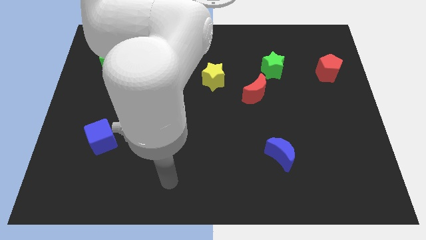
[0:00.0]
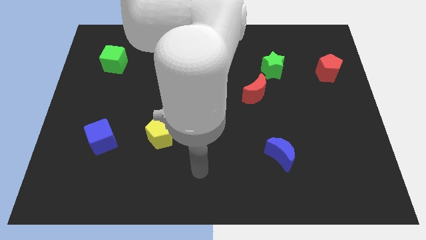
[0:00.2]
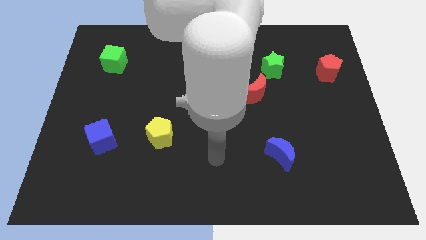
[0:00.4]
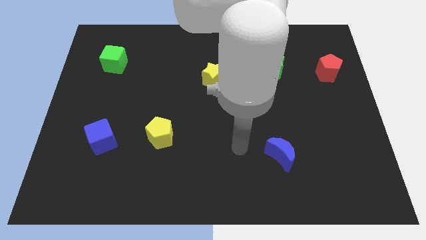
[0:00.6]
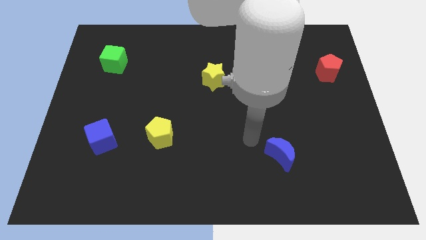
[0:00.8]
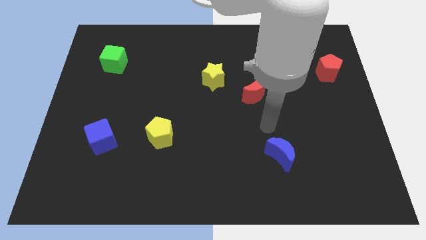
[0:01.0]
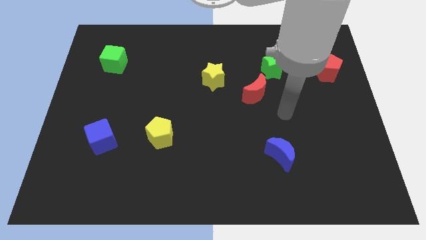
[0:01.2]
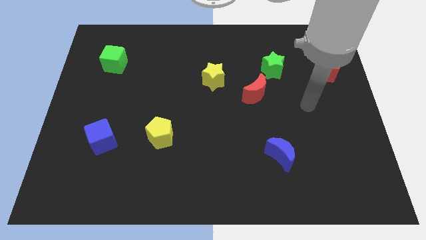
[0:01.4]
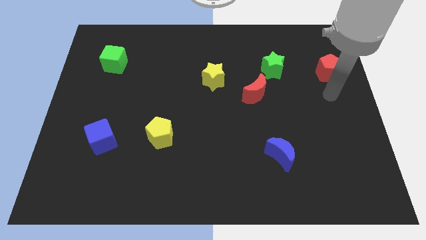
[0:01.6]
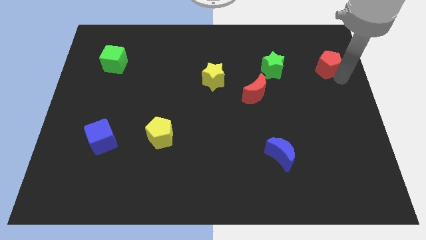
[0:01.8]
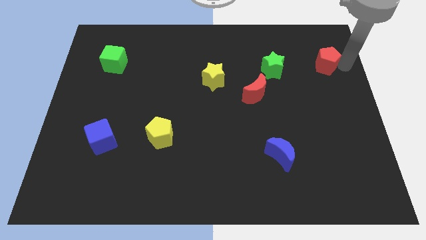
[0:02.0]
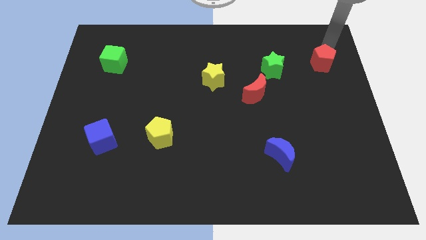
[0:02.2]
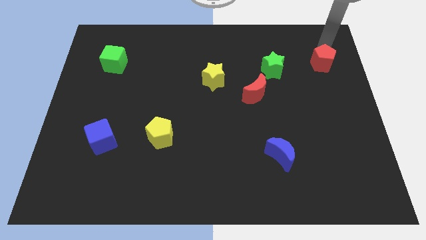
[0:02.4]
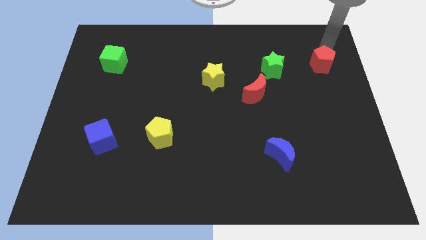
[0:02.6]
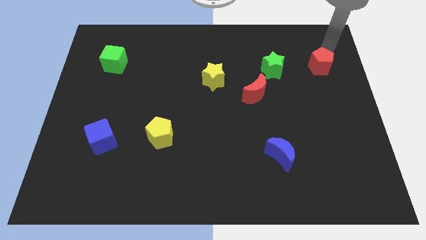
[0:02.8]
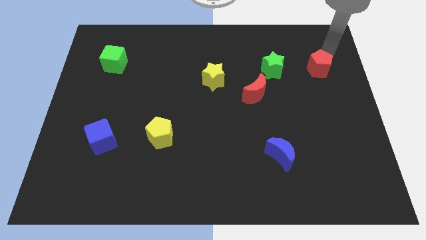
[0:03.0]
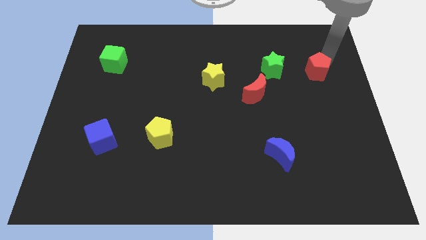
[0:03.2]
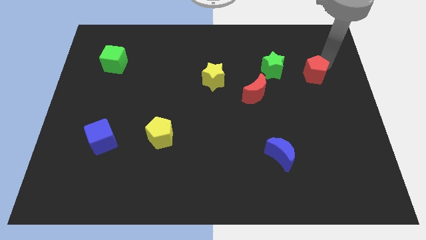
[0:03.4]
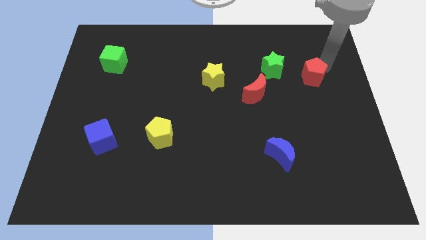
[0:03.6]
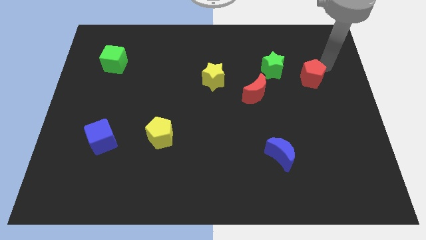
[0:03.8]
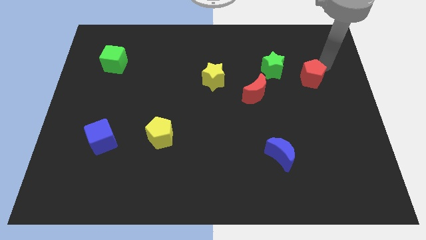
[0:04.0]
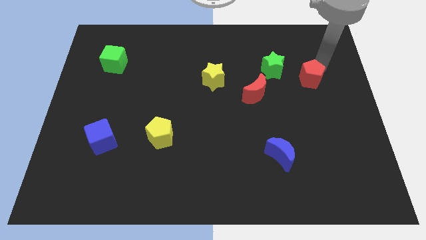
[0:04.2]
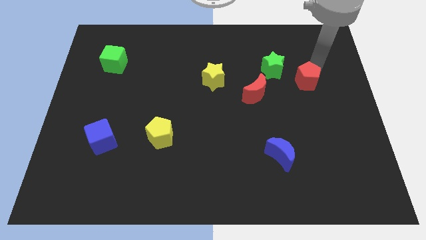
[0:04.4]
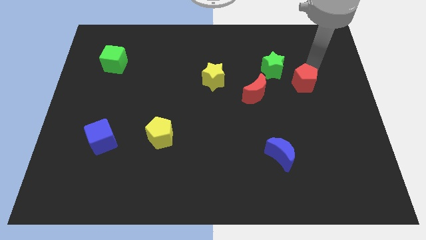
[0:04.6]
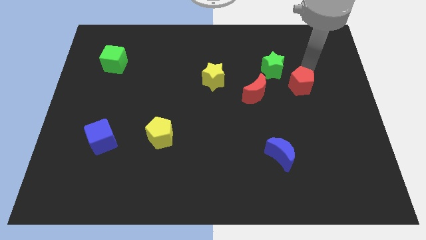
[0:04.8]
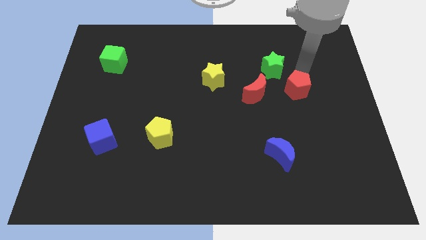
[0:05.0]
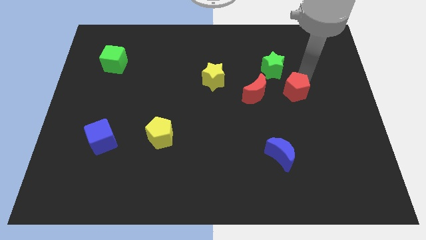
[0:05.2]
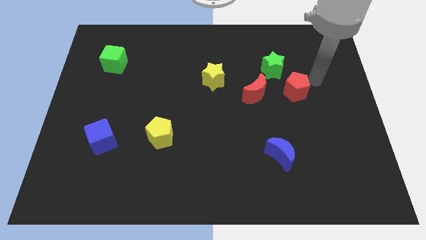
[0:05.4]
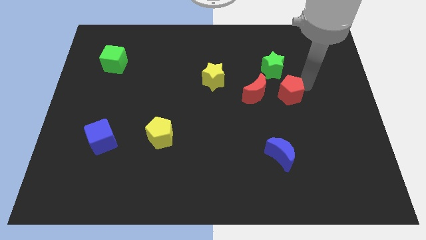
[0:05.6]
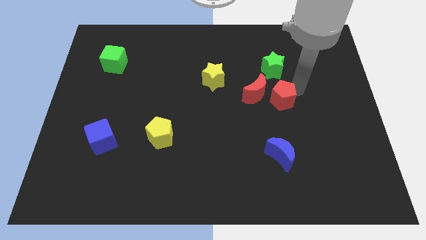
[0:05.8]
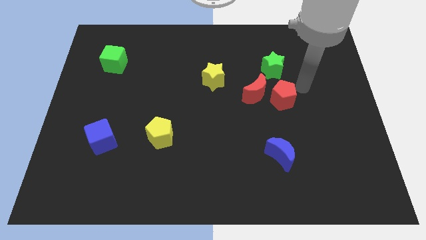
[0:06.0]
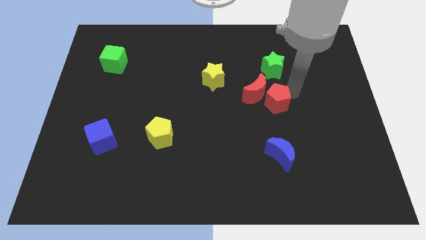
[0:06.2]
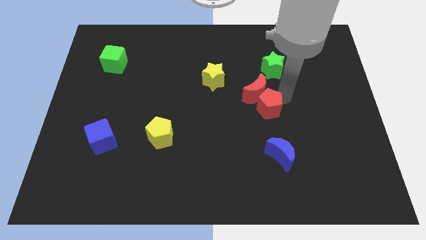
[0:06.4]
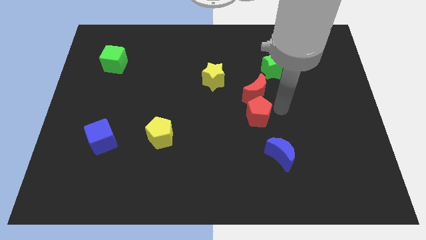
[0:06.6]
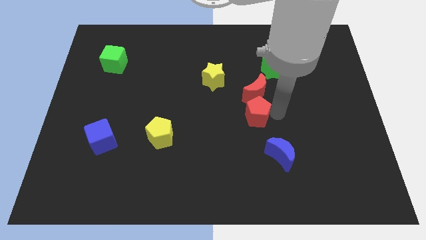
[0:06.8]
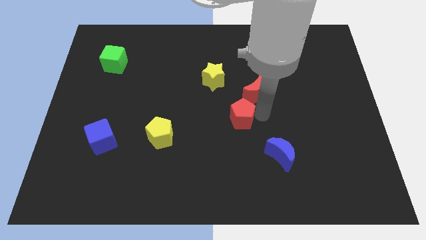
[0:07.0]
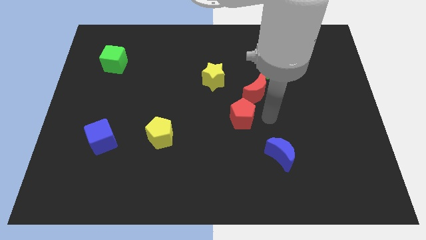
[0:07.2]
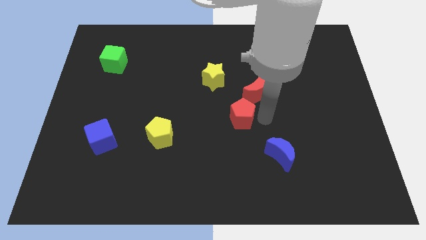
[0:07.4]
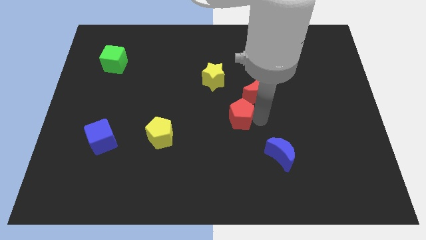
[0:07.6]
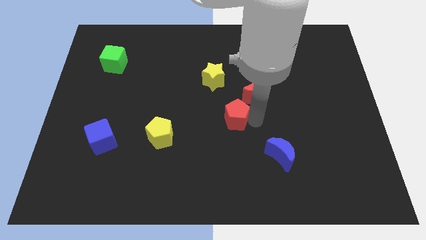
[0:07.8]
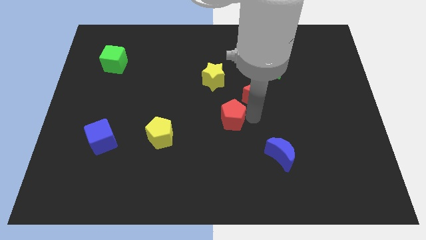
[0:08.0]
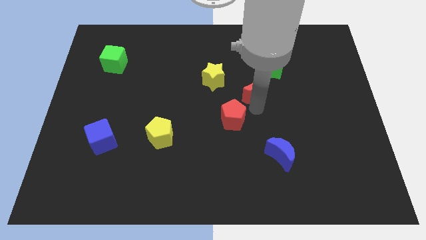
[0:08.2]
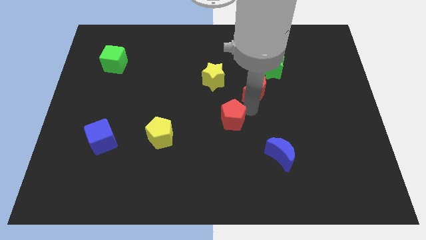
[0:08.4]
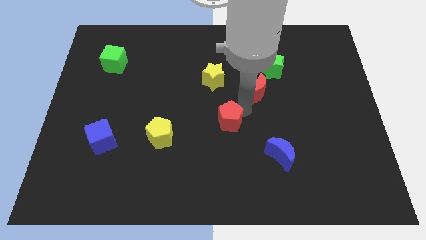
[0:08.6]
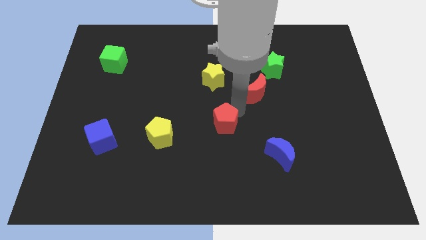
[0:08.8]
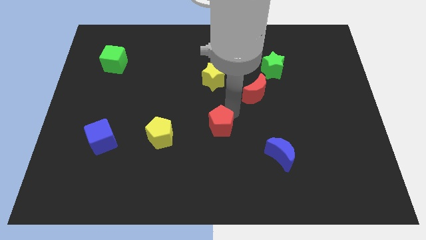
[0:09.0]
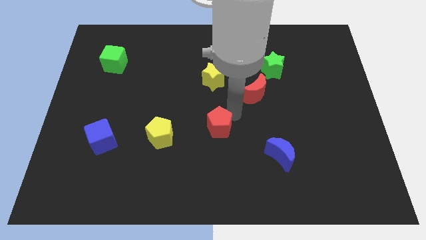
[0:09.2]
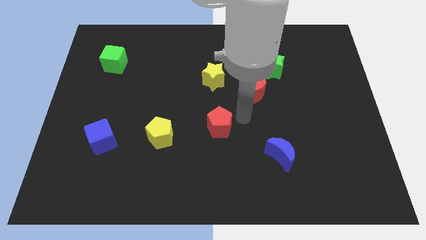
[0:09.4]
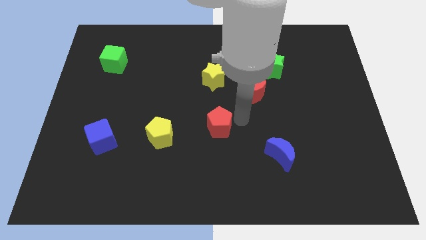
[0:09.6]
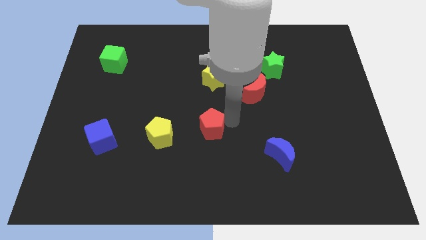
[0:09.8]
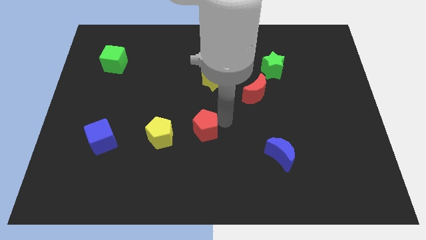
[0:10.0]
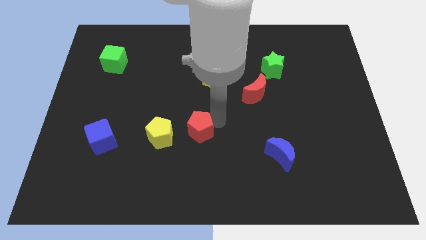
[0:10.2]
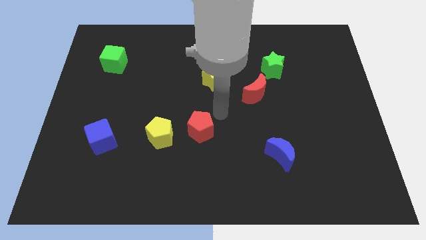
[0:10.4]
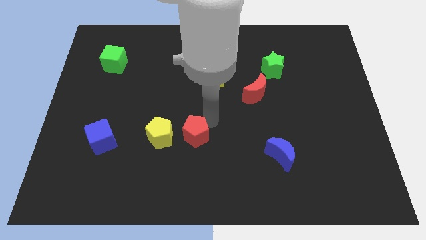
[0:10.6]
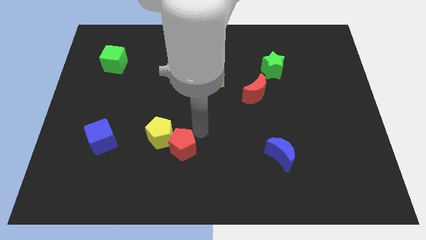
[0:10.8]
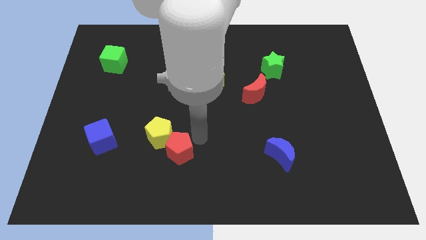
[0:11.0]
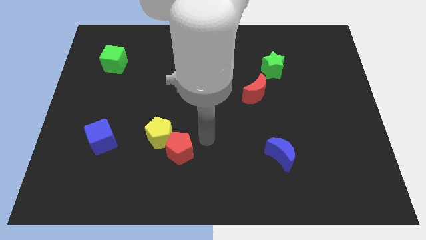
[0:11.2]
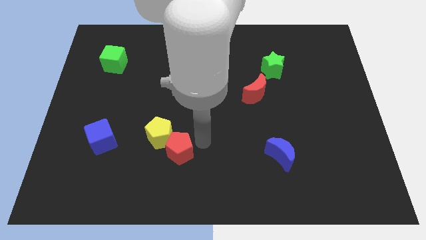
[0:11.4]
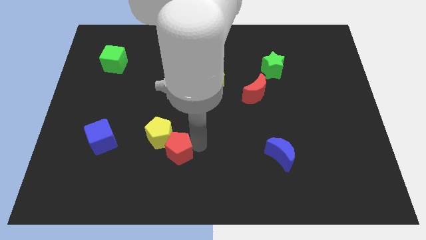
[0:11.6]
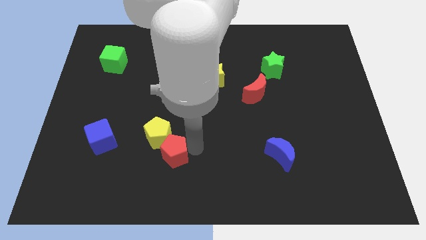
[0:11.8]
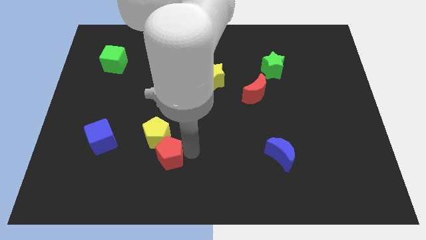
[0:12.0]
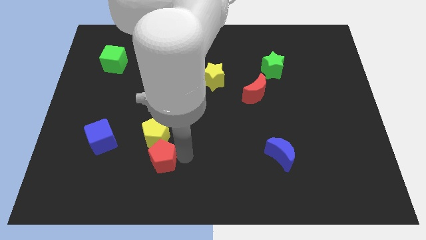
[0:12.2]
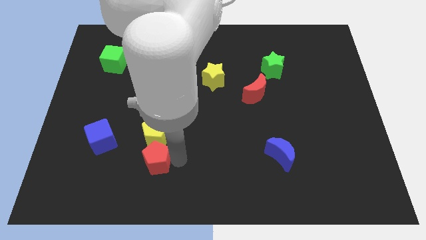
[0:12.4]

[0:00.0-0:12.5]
slide the red pentagon to the bottom left of the yellow pentagon

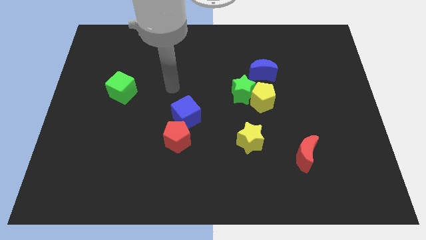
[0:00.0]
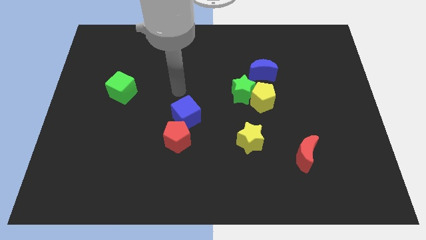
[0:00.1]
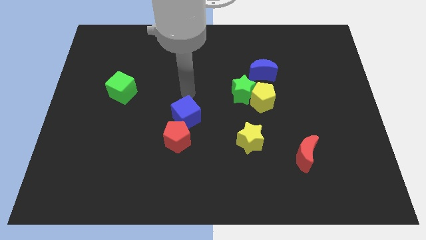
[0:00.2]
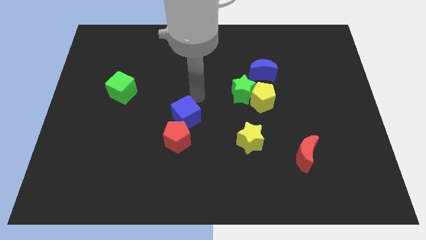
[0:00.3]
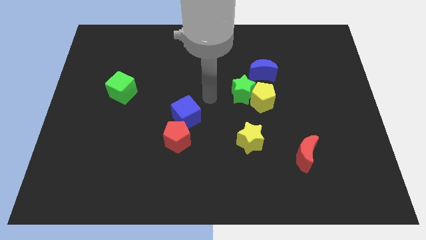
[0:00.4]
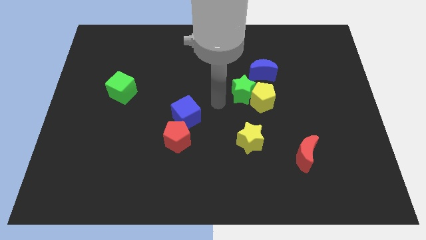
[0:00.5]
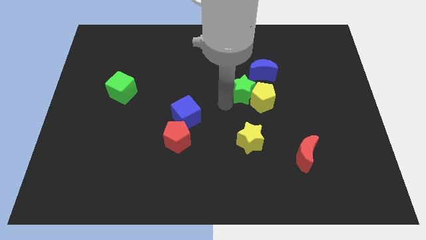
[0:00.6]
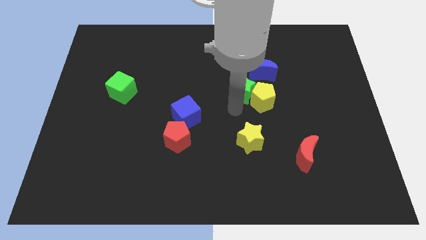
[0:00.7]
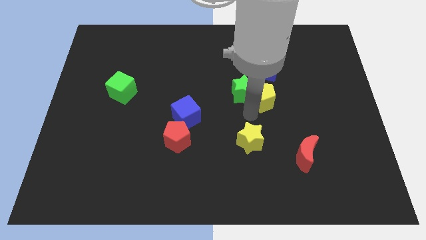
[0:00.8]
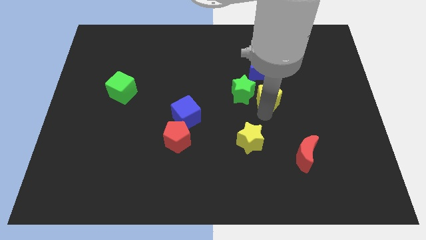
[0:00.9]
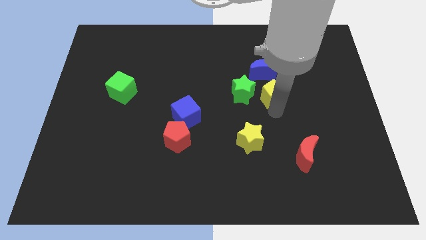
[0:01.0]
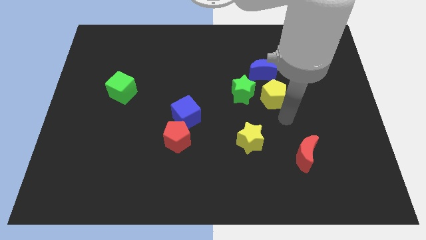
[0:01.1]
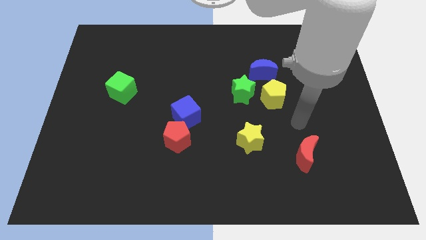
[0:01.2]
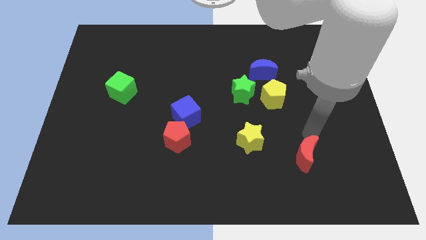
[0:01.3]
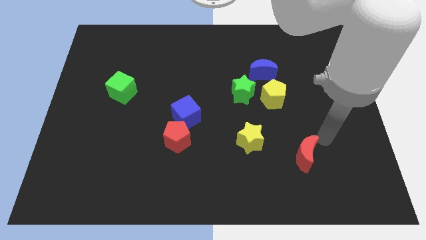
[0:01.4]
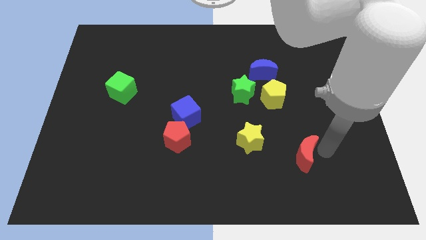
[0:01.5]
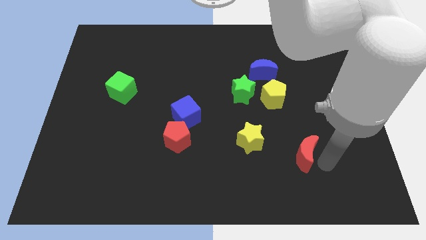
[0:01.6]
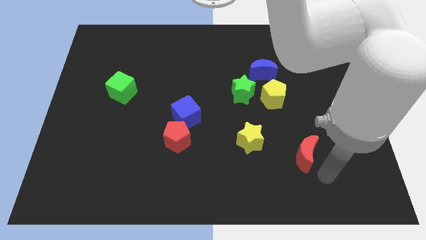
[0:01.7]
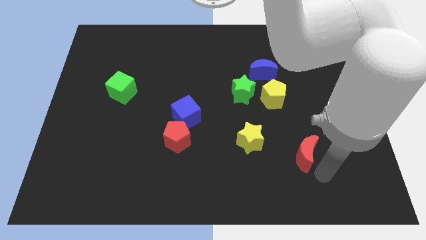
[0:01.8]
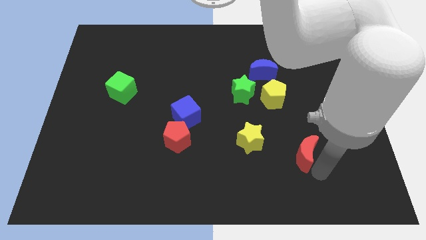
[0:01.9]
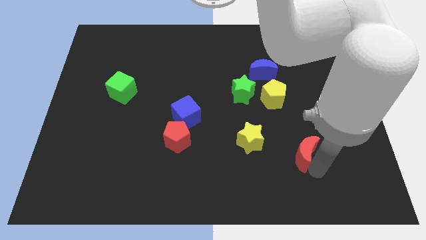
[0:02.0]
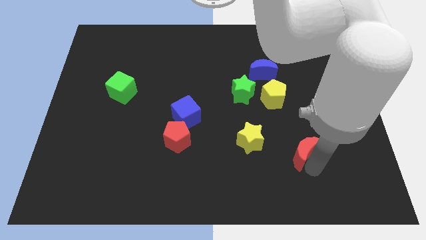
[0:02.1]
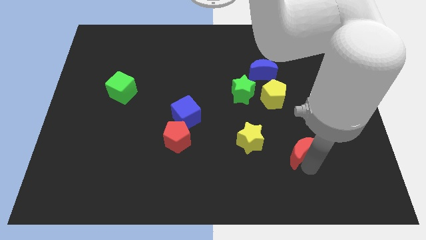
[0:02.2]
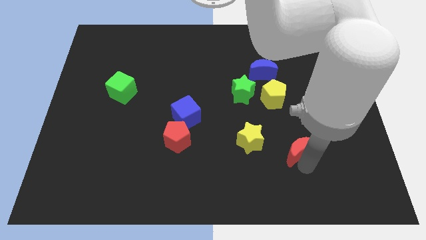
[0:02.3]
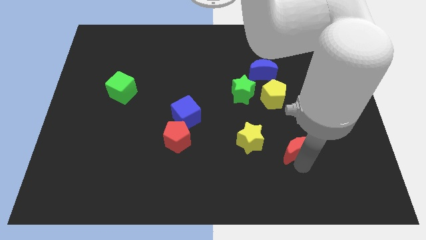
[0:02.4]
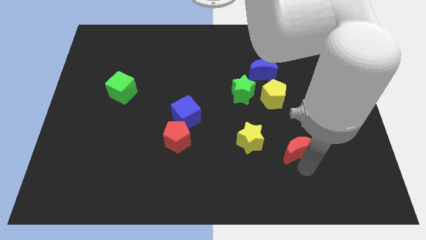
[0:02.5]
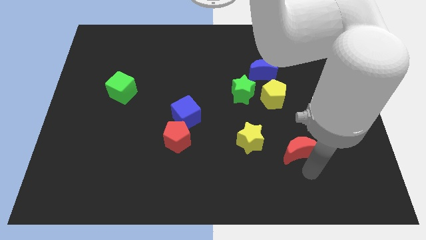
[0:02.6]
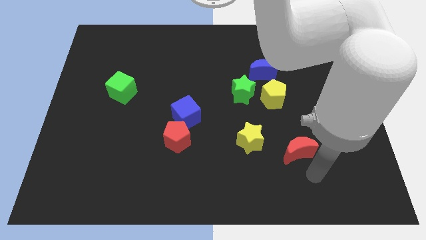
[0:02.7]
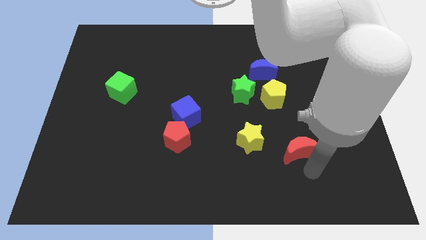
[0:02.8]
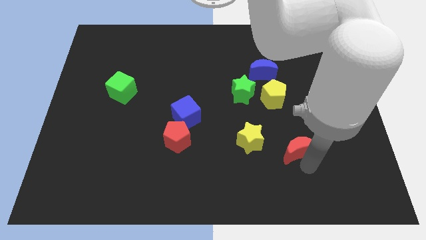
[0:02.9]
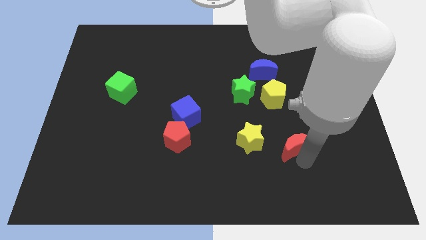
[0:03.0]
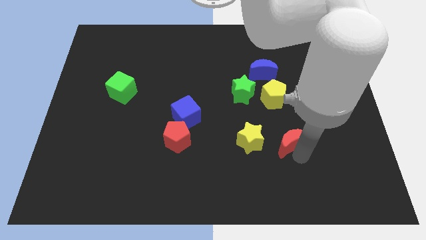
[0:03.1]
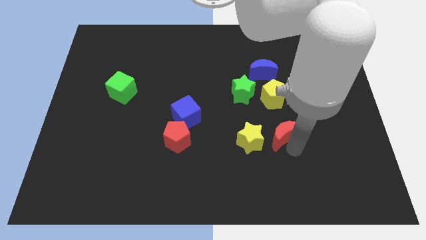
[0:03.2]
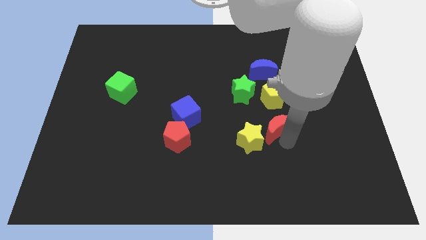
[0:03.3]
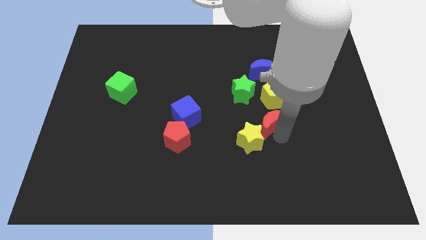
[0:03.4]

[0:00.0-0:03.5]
slide the red moon to the bottom of the blue moon
